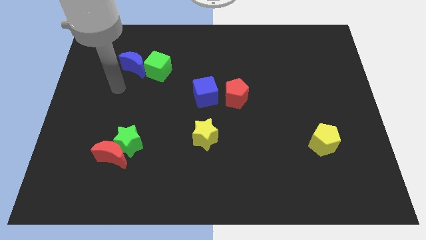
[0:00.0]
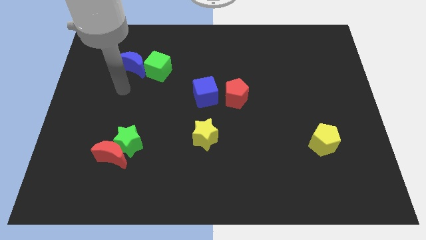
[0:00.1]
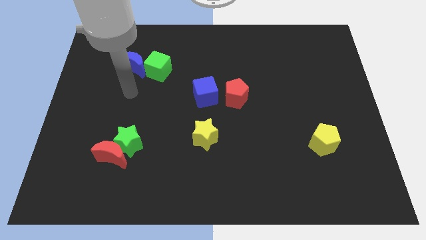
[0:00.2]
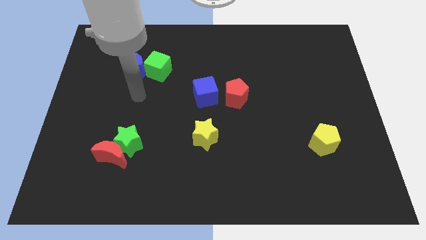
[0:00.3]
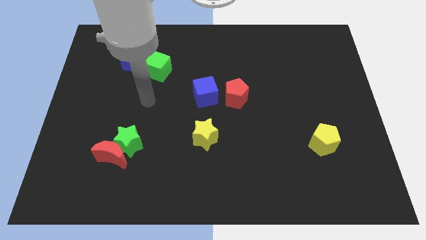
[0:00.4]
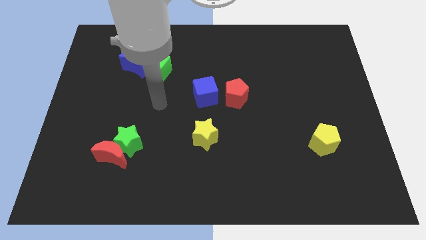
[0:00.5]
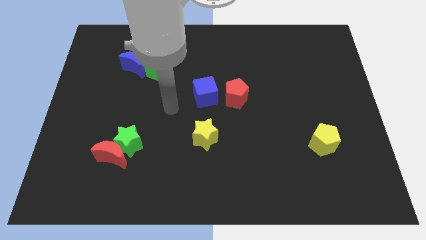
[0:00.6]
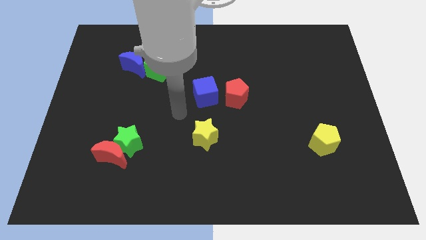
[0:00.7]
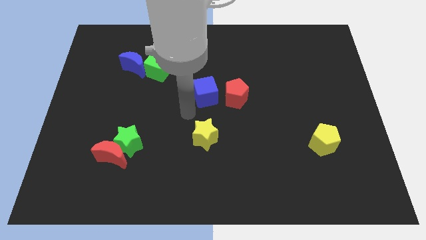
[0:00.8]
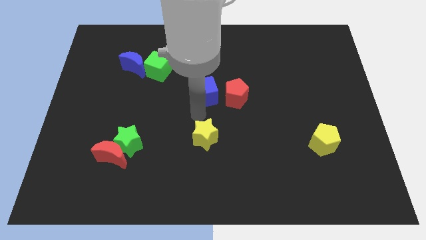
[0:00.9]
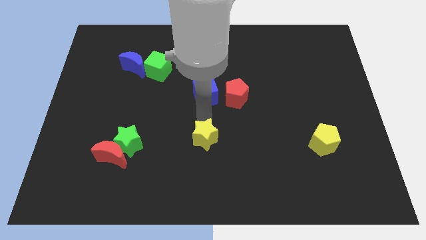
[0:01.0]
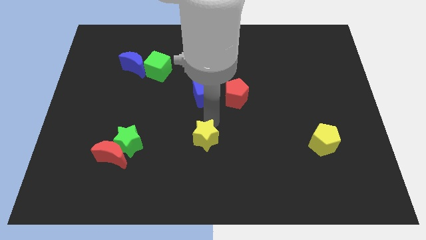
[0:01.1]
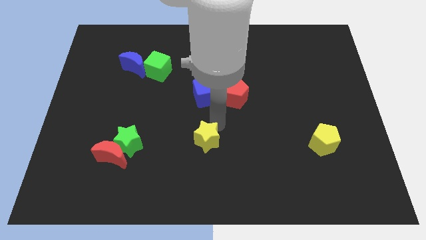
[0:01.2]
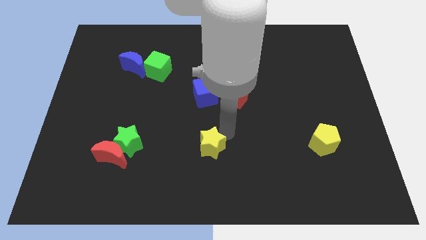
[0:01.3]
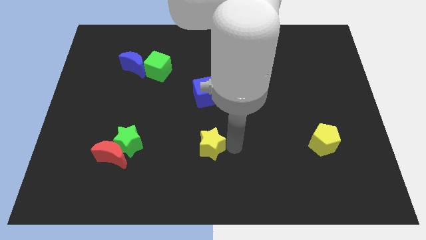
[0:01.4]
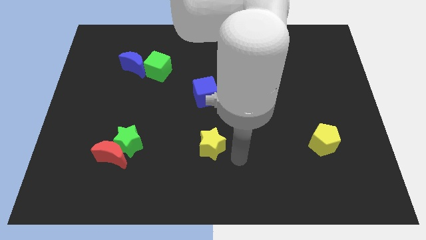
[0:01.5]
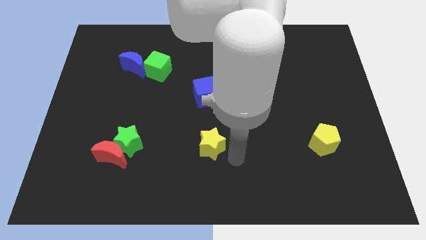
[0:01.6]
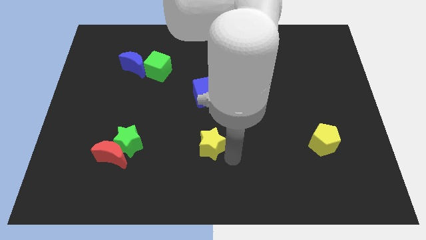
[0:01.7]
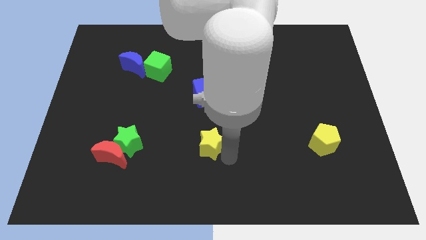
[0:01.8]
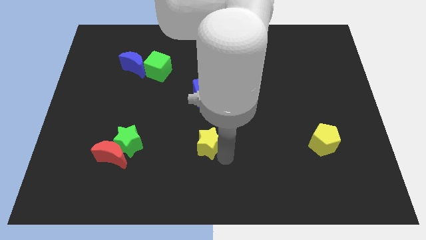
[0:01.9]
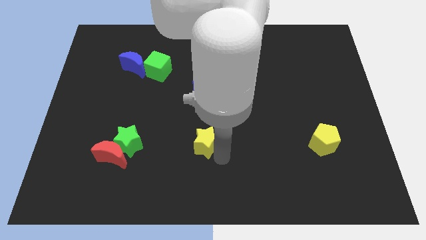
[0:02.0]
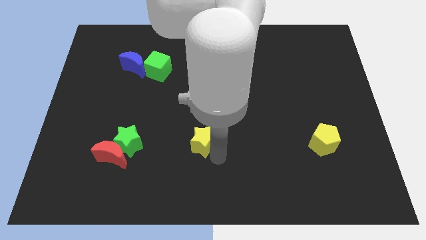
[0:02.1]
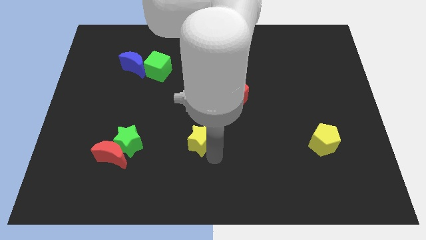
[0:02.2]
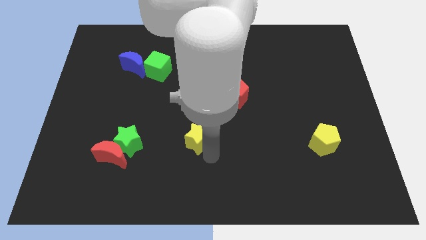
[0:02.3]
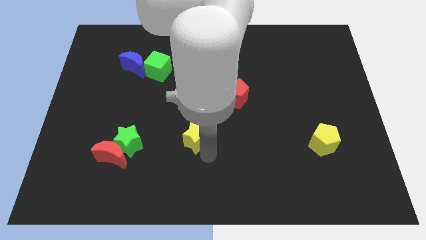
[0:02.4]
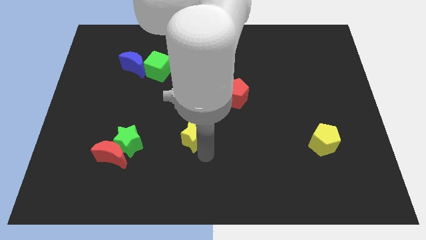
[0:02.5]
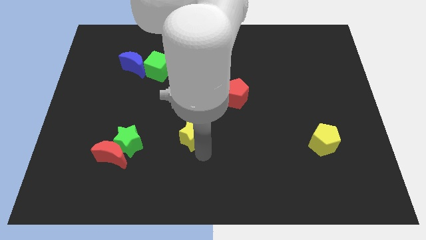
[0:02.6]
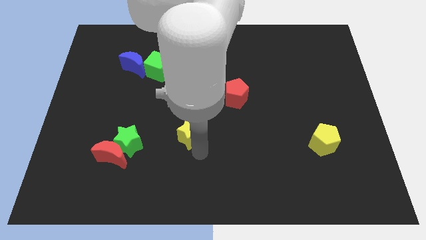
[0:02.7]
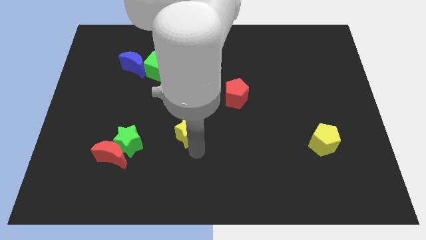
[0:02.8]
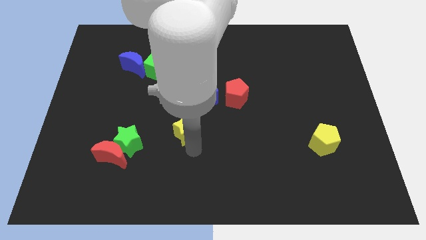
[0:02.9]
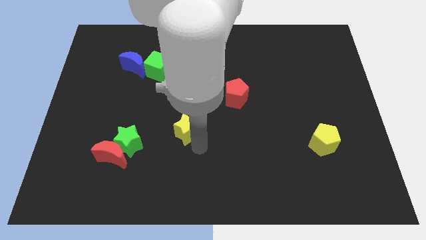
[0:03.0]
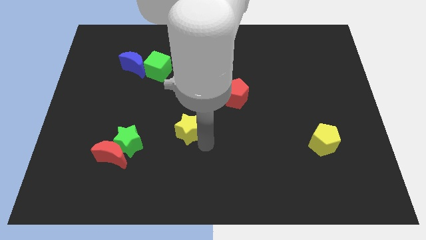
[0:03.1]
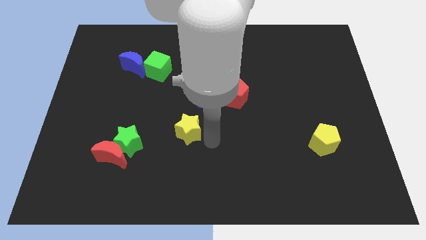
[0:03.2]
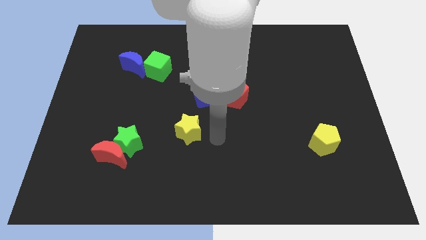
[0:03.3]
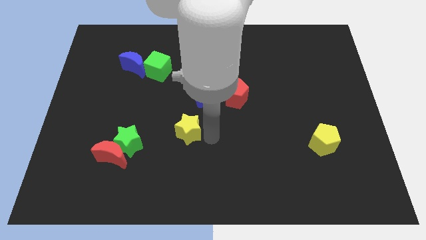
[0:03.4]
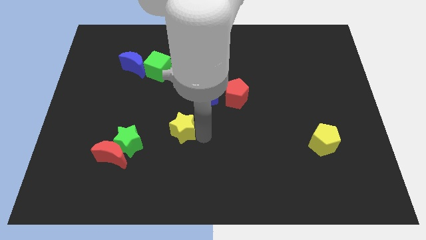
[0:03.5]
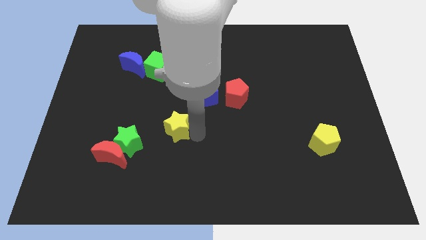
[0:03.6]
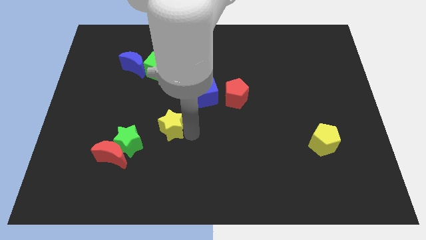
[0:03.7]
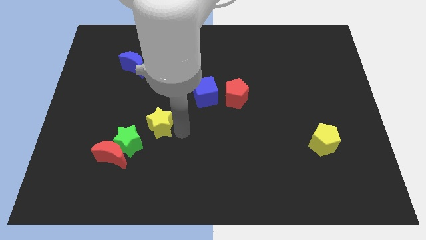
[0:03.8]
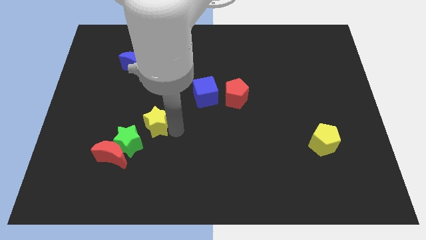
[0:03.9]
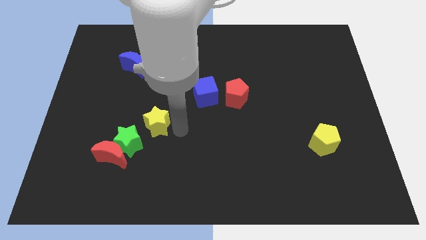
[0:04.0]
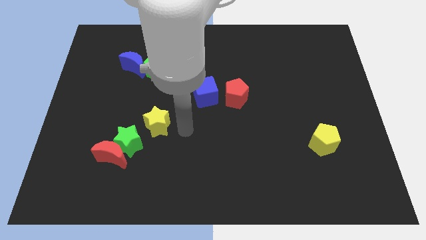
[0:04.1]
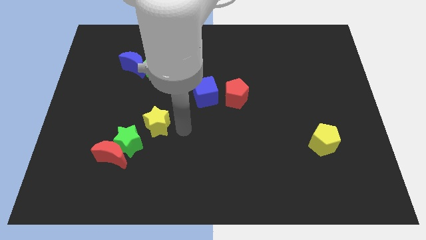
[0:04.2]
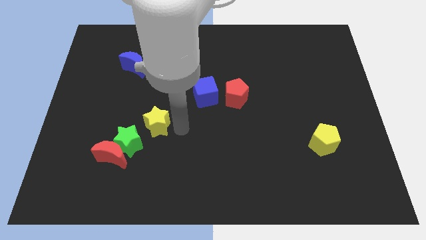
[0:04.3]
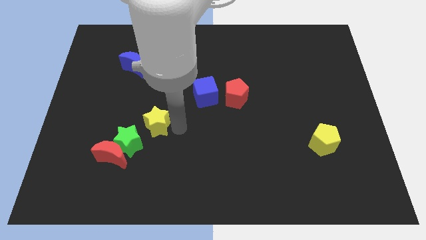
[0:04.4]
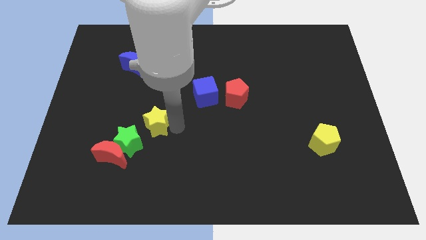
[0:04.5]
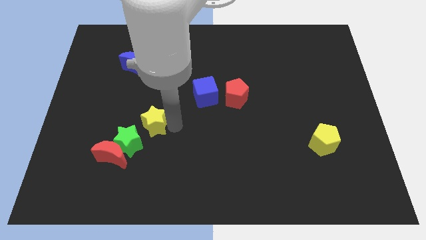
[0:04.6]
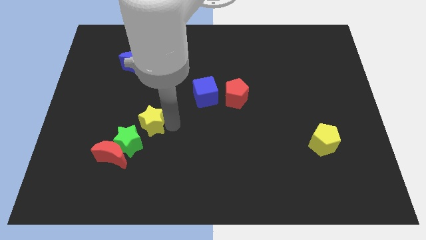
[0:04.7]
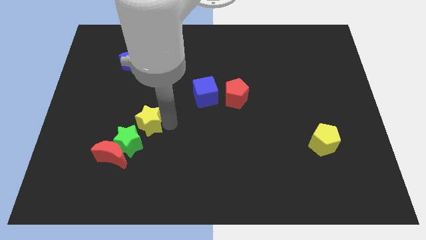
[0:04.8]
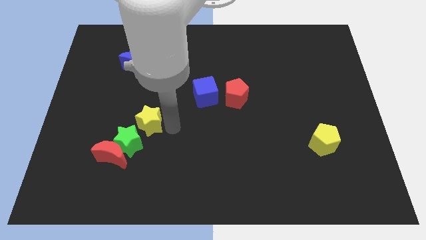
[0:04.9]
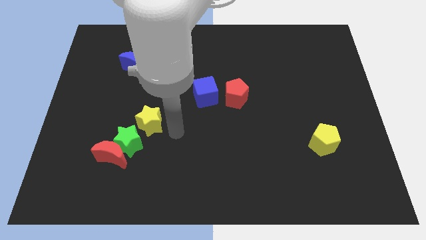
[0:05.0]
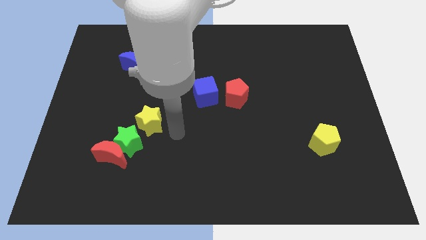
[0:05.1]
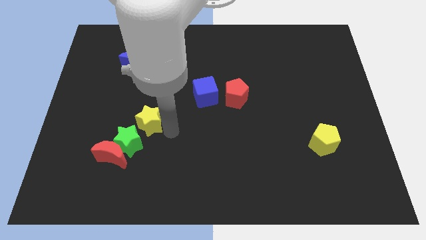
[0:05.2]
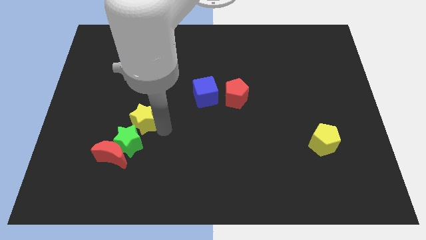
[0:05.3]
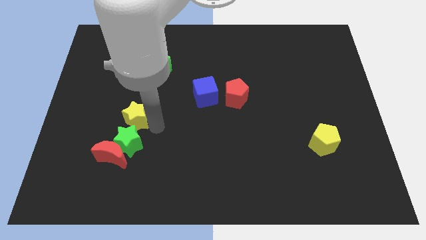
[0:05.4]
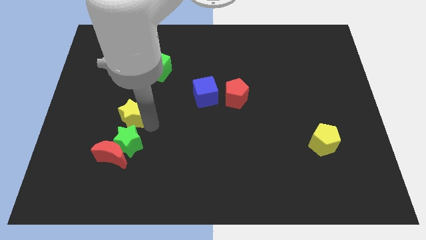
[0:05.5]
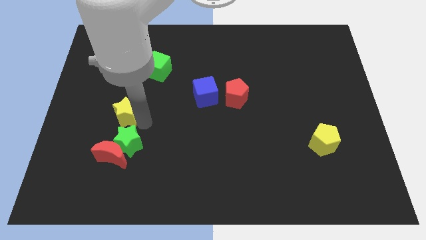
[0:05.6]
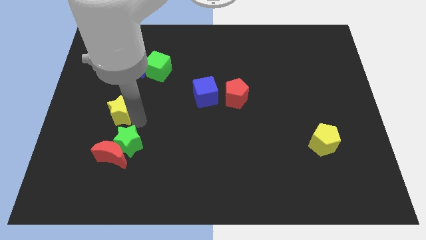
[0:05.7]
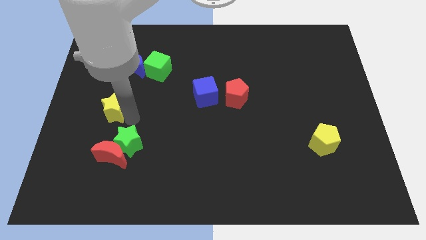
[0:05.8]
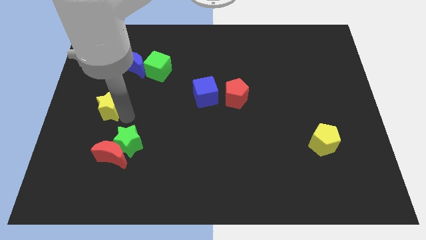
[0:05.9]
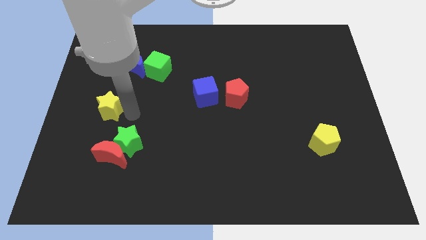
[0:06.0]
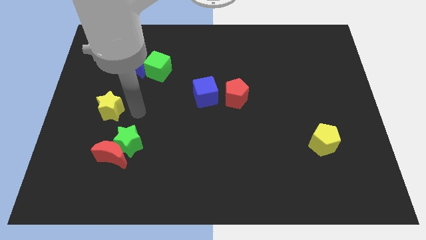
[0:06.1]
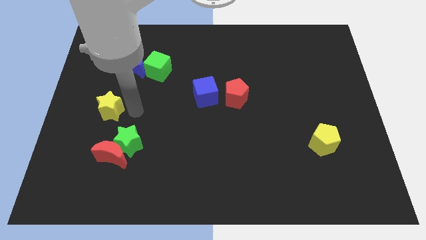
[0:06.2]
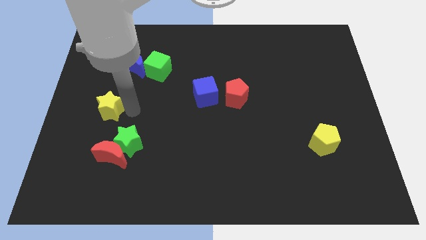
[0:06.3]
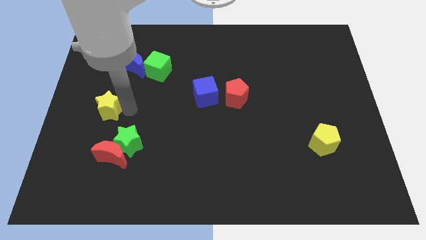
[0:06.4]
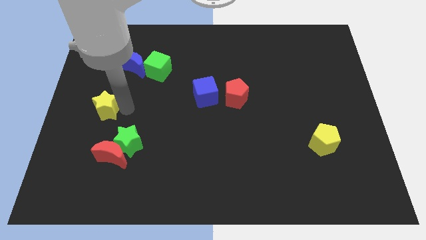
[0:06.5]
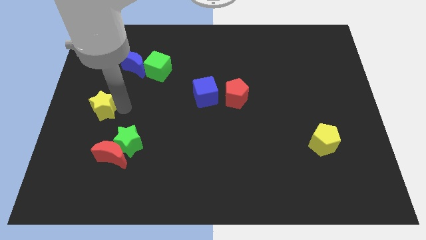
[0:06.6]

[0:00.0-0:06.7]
slide the yellow star to the center left

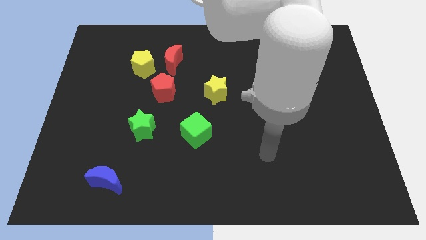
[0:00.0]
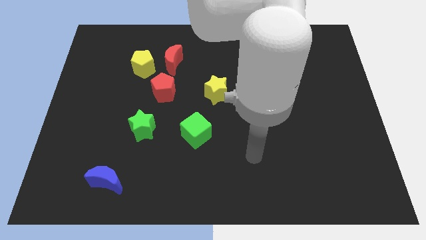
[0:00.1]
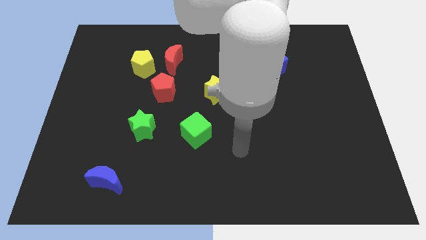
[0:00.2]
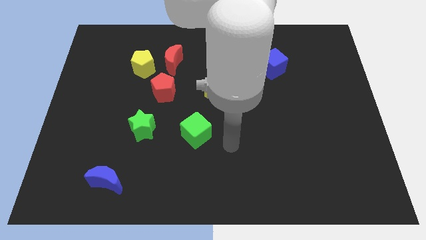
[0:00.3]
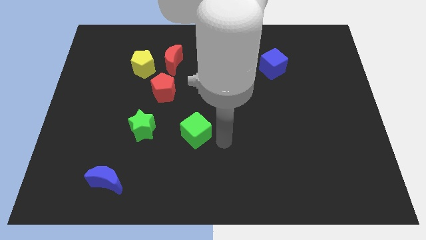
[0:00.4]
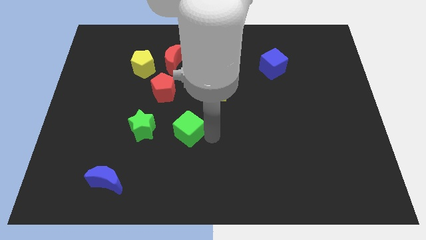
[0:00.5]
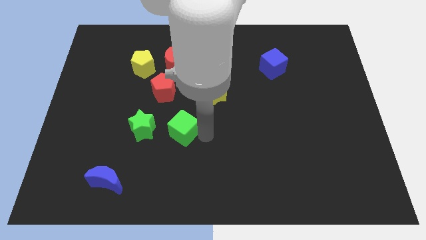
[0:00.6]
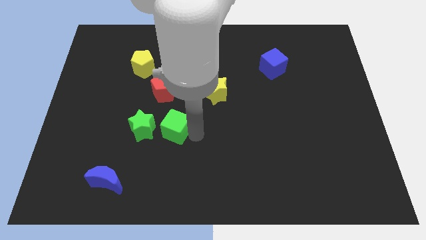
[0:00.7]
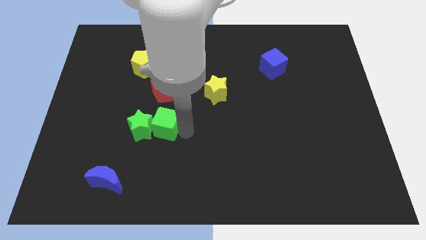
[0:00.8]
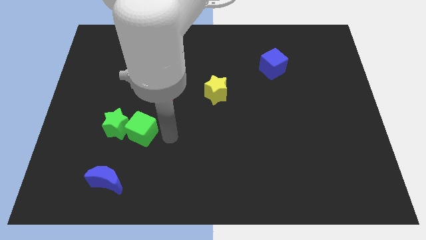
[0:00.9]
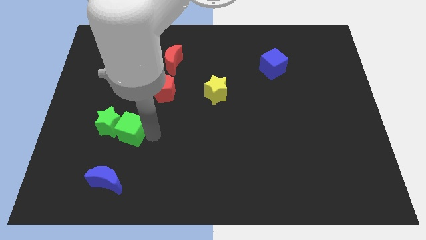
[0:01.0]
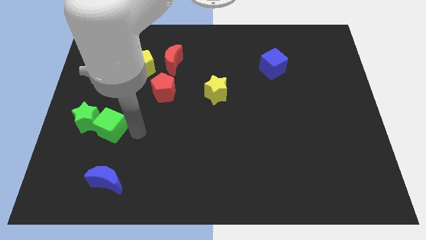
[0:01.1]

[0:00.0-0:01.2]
push the green star to the left side
